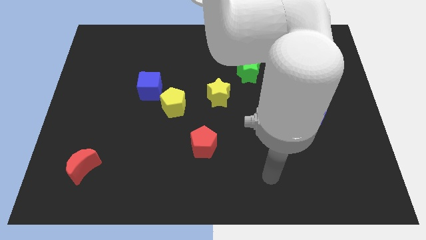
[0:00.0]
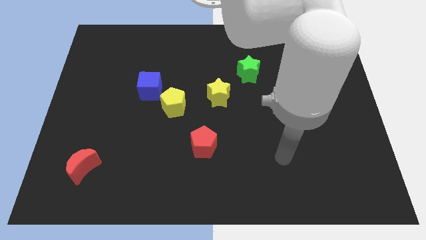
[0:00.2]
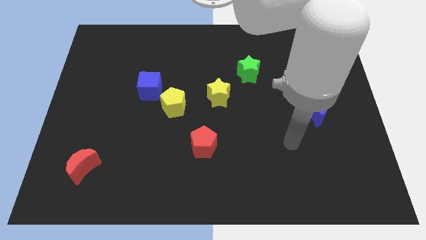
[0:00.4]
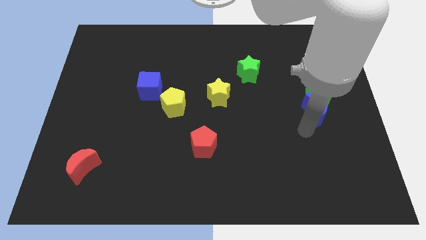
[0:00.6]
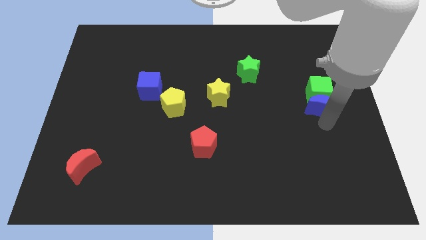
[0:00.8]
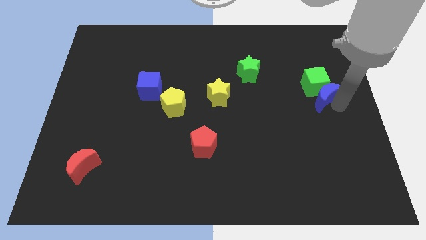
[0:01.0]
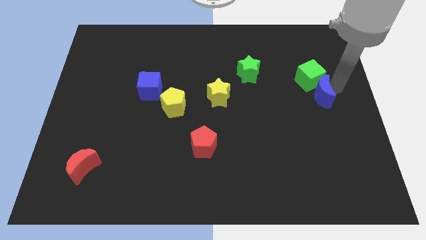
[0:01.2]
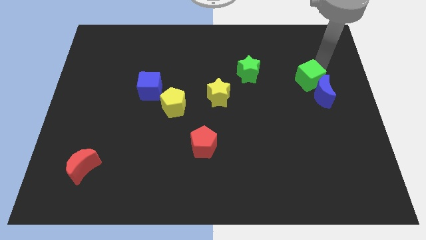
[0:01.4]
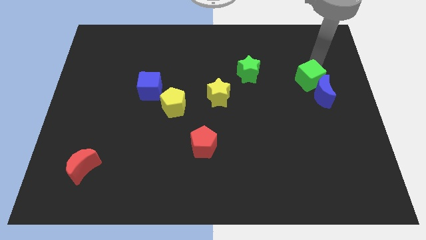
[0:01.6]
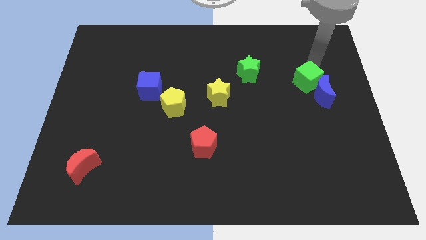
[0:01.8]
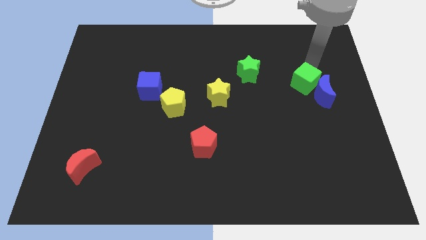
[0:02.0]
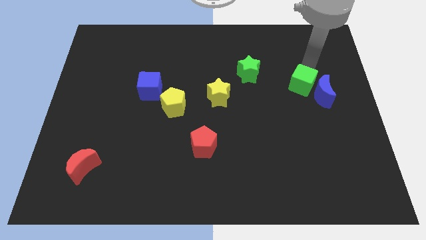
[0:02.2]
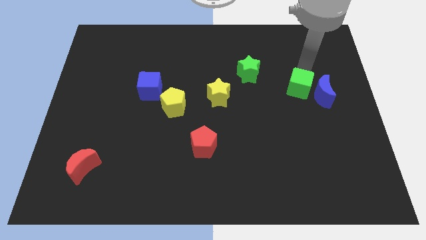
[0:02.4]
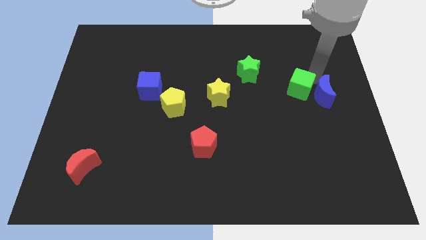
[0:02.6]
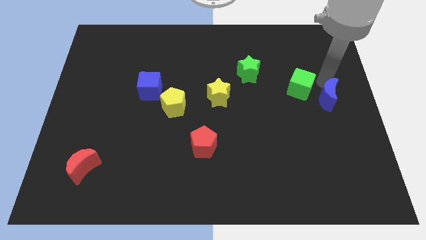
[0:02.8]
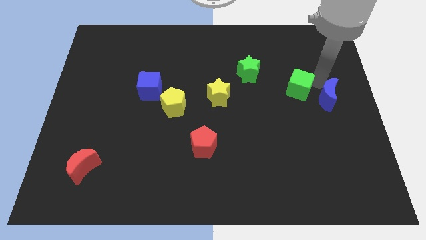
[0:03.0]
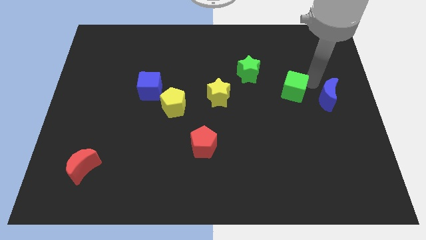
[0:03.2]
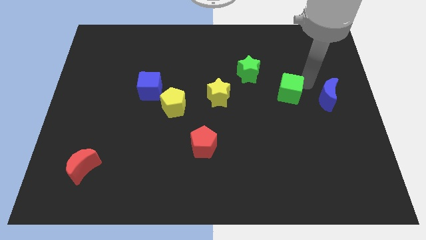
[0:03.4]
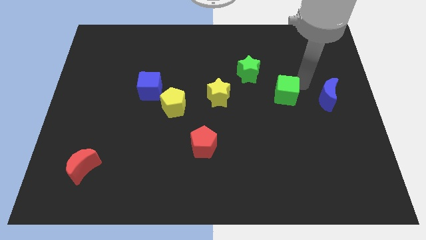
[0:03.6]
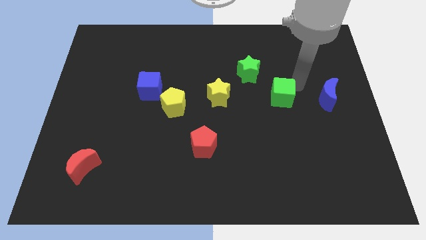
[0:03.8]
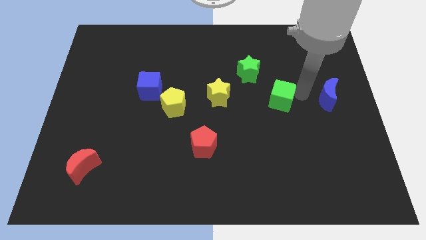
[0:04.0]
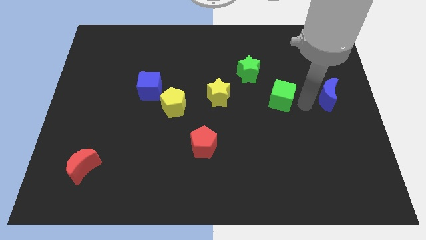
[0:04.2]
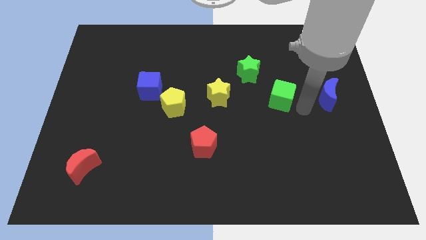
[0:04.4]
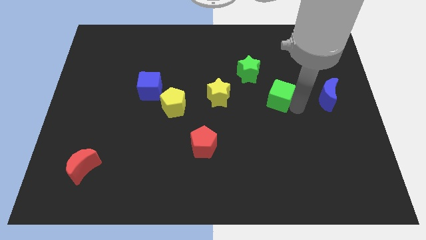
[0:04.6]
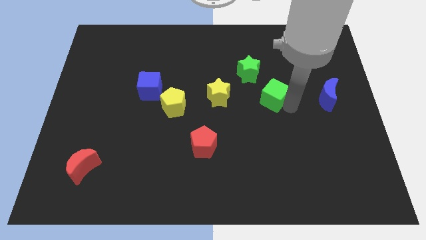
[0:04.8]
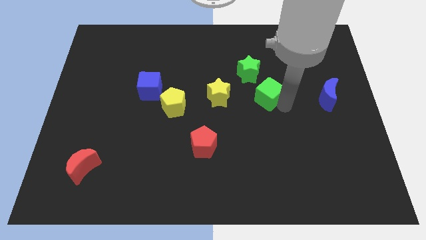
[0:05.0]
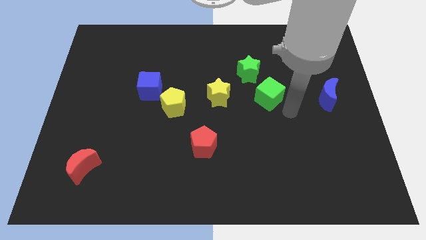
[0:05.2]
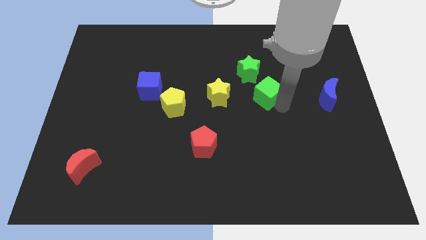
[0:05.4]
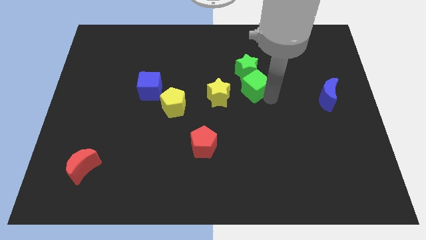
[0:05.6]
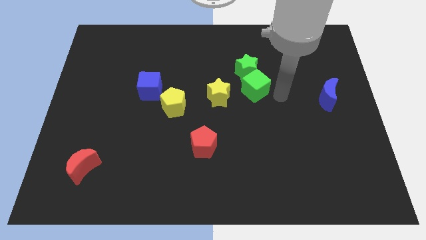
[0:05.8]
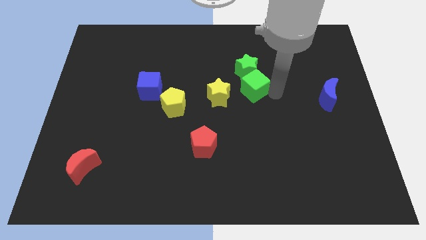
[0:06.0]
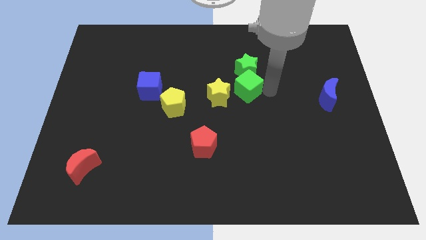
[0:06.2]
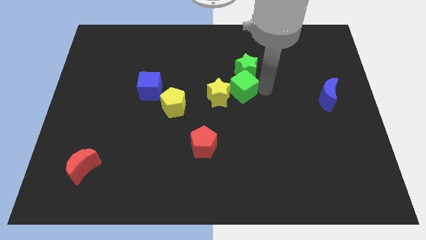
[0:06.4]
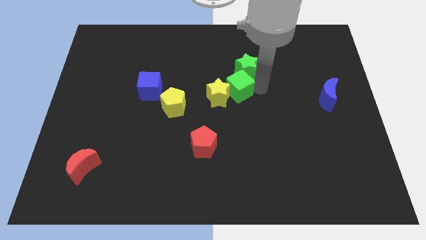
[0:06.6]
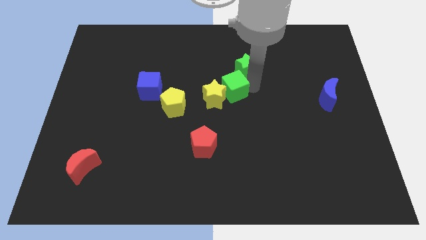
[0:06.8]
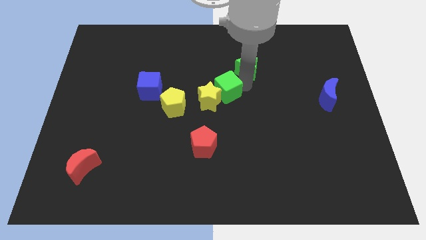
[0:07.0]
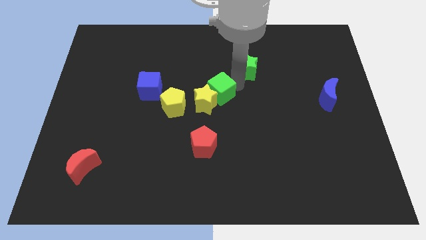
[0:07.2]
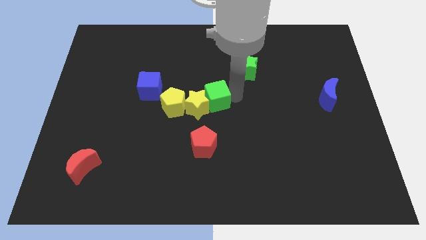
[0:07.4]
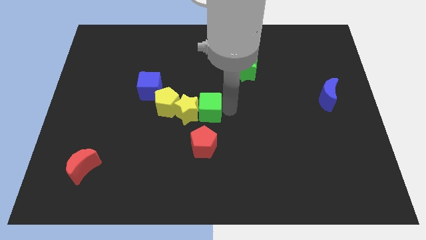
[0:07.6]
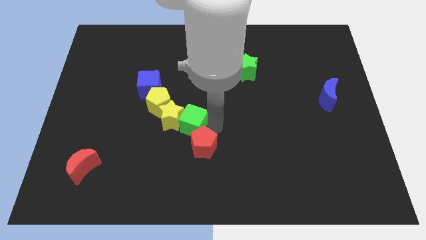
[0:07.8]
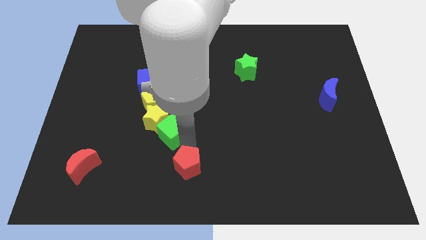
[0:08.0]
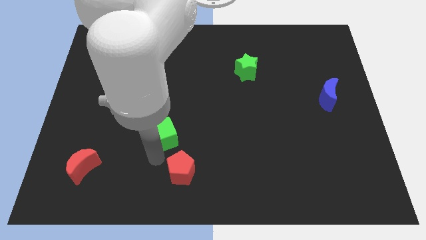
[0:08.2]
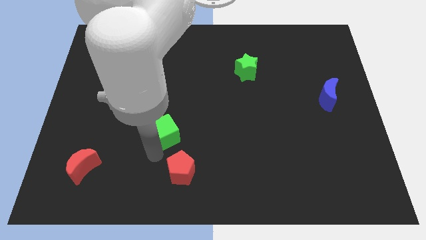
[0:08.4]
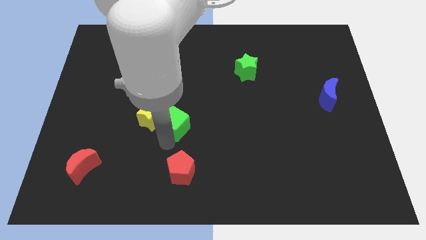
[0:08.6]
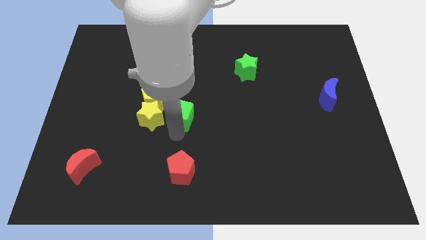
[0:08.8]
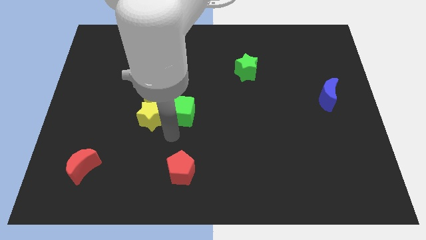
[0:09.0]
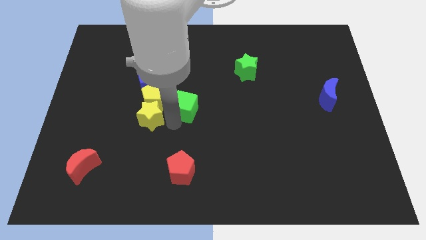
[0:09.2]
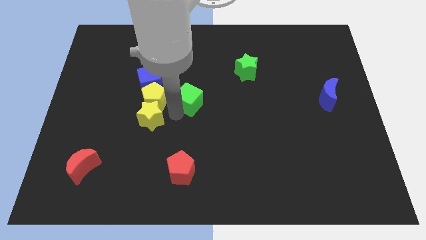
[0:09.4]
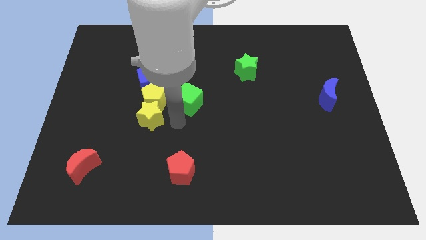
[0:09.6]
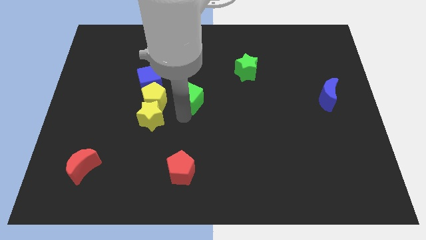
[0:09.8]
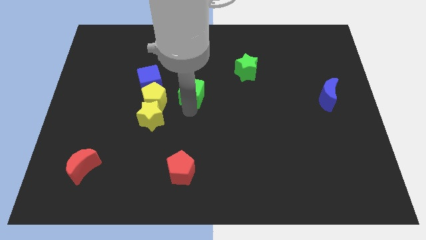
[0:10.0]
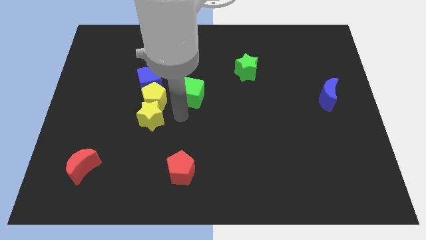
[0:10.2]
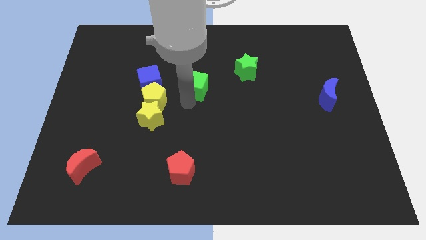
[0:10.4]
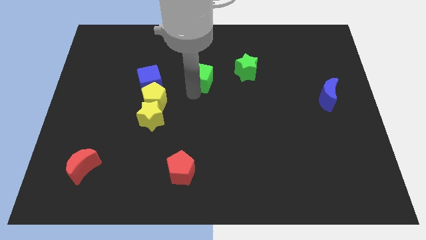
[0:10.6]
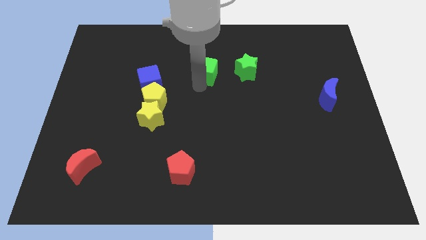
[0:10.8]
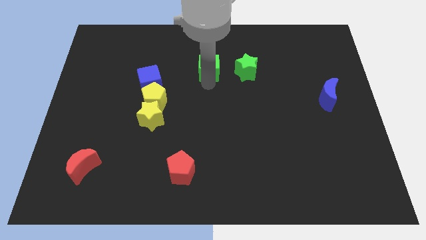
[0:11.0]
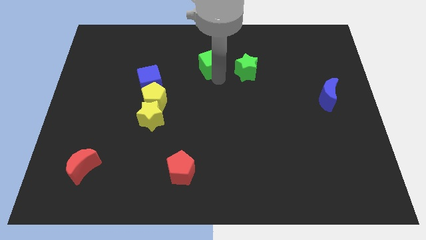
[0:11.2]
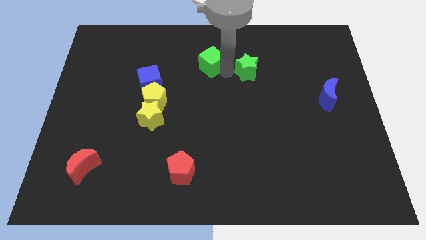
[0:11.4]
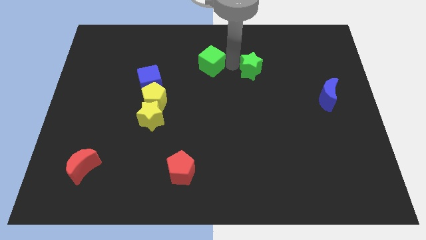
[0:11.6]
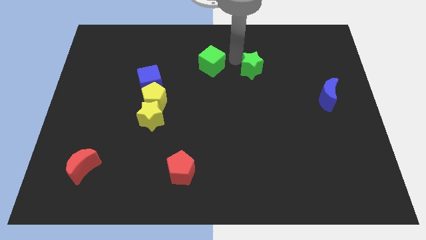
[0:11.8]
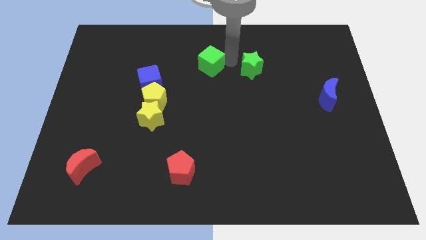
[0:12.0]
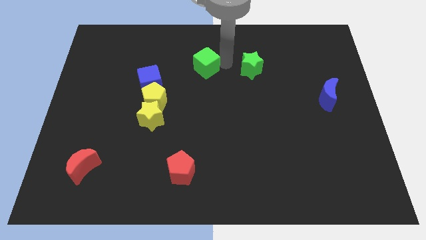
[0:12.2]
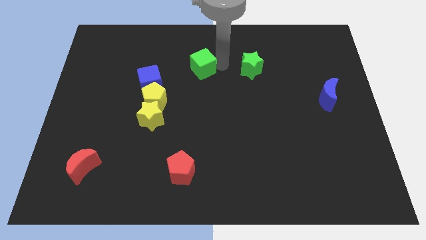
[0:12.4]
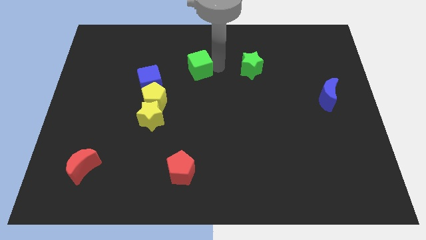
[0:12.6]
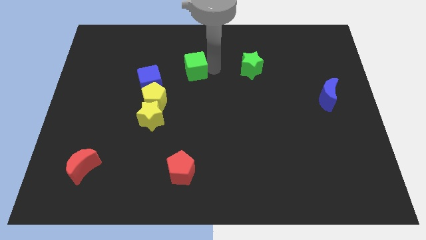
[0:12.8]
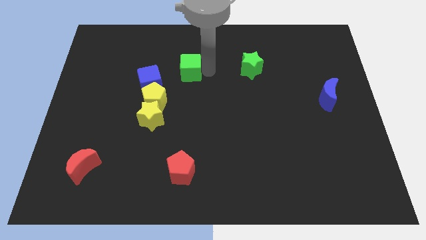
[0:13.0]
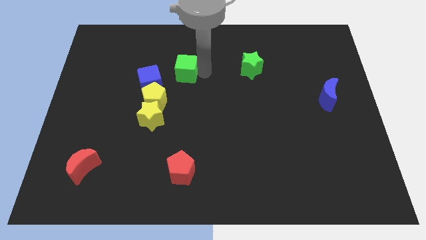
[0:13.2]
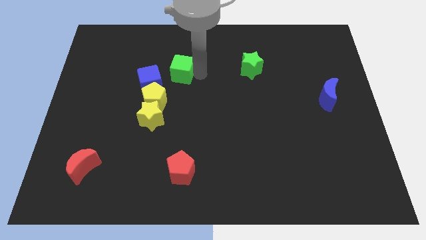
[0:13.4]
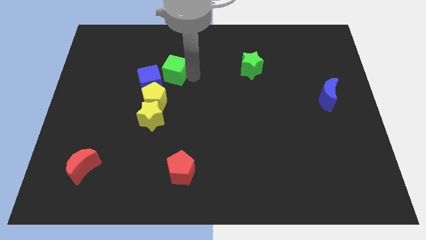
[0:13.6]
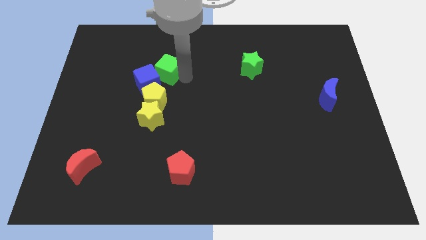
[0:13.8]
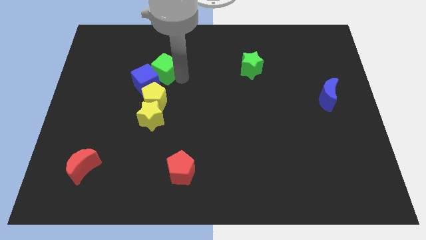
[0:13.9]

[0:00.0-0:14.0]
slide the green cube to the top side of the blue cube

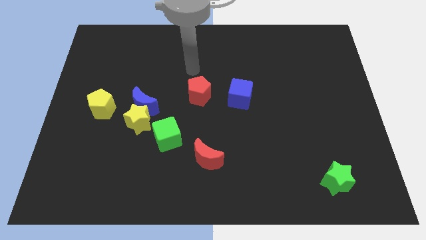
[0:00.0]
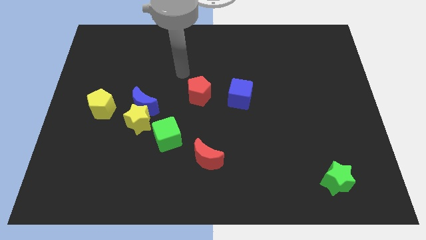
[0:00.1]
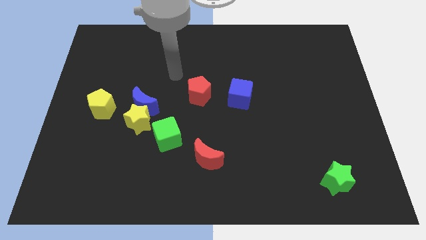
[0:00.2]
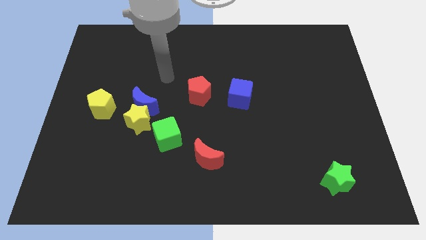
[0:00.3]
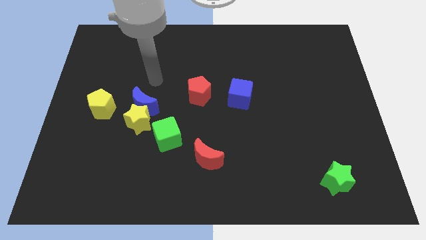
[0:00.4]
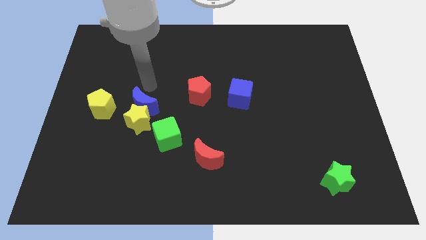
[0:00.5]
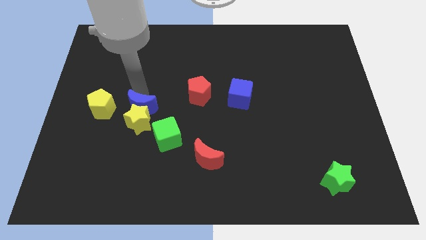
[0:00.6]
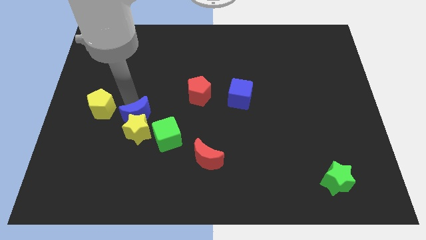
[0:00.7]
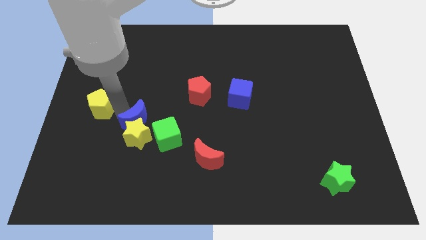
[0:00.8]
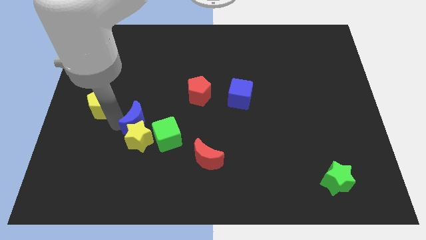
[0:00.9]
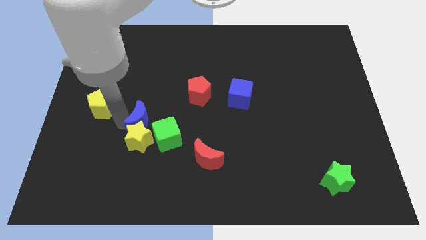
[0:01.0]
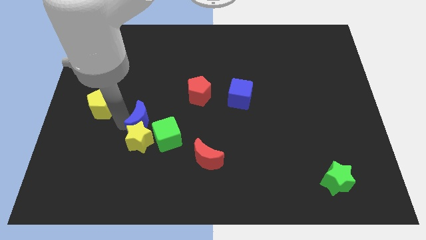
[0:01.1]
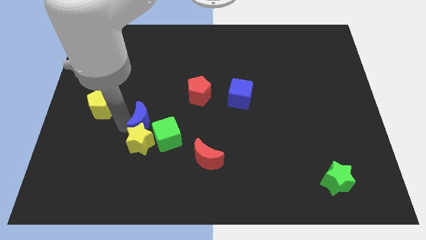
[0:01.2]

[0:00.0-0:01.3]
push the yellow star just left of the red moon
